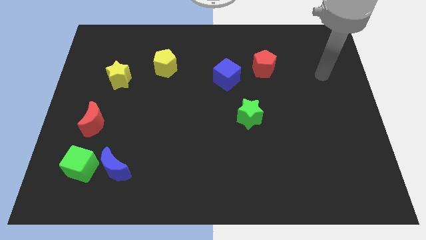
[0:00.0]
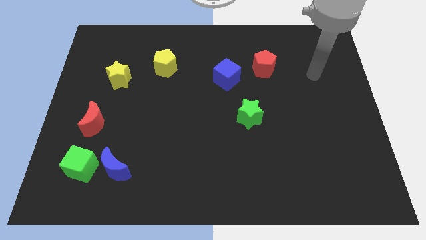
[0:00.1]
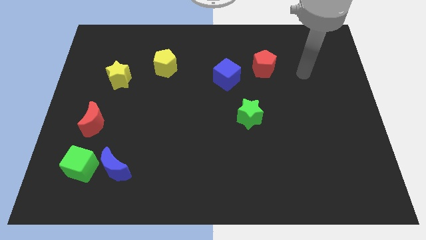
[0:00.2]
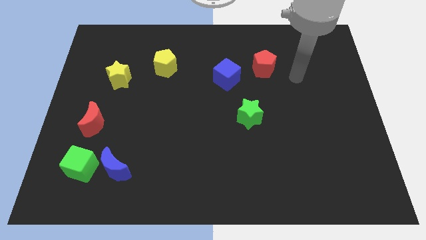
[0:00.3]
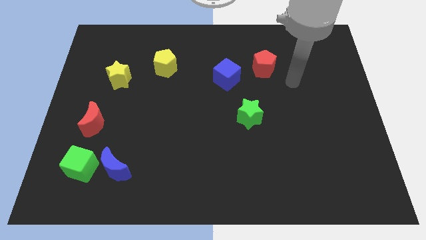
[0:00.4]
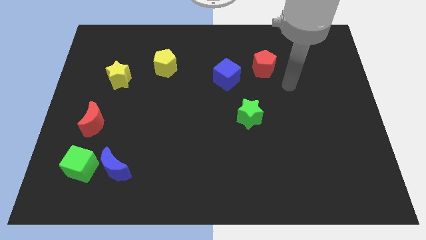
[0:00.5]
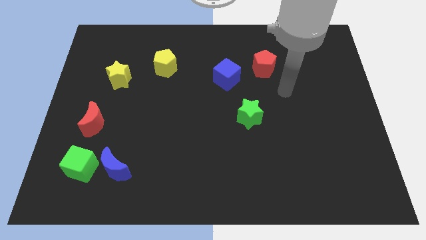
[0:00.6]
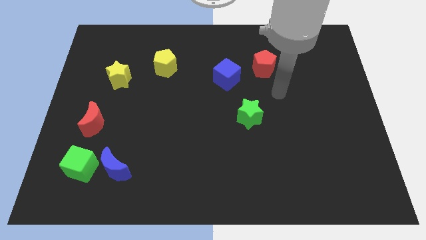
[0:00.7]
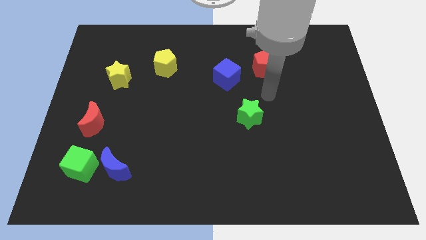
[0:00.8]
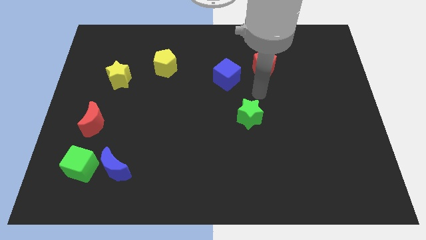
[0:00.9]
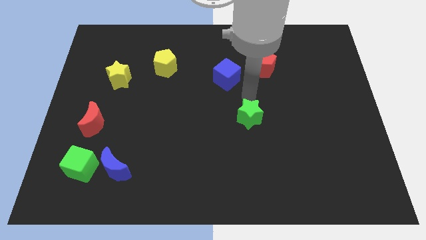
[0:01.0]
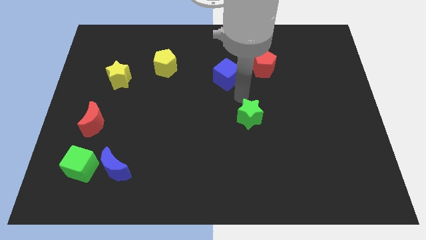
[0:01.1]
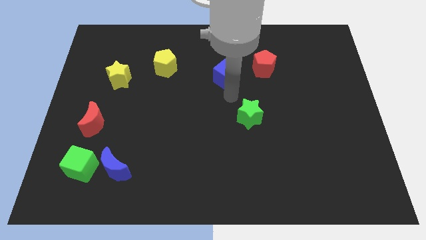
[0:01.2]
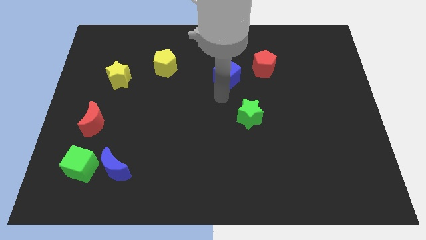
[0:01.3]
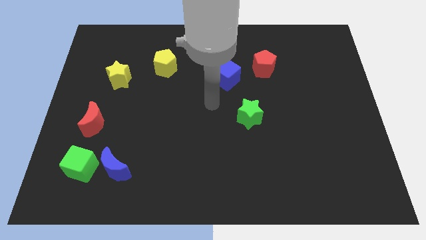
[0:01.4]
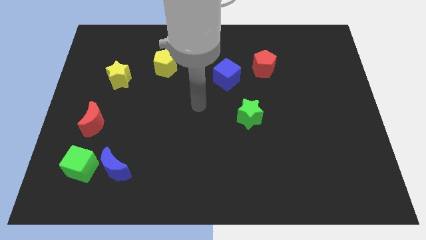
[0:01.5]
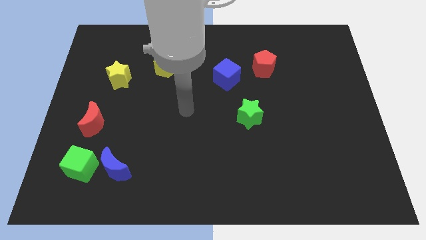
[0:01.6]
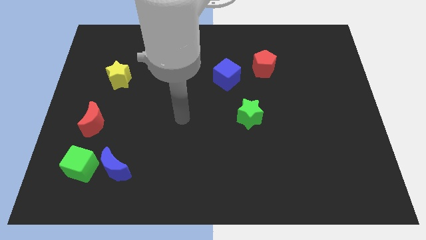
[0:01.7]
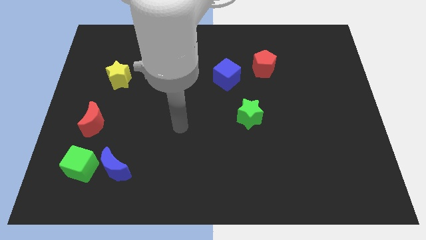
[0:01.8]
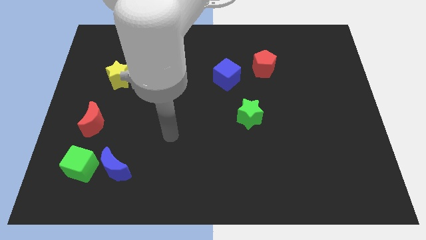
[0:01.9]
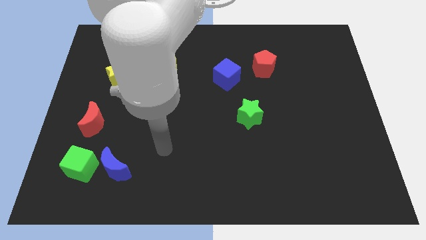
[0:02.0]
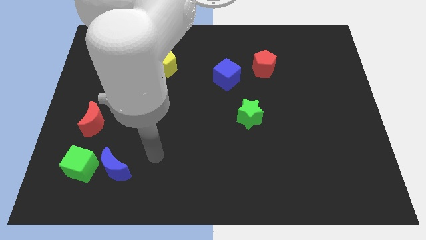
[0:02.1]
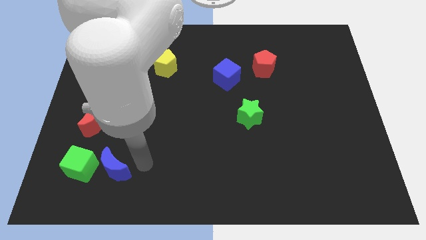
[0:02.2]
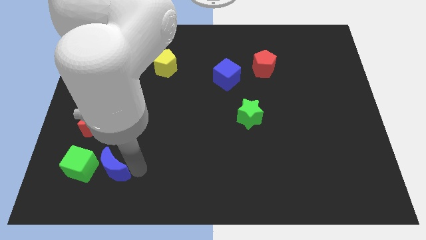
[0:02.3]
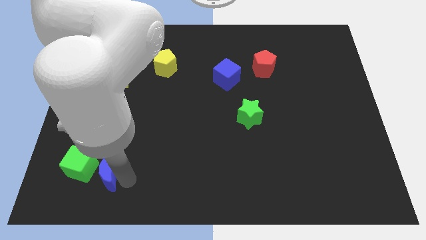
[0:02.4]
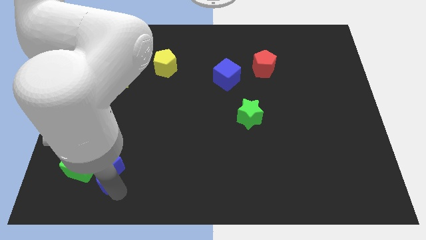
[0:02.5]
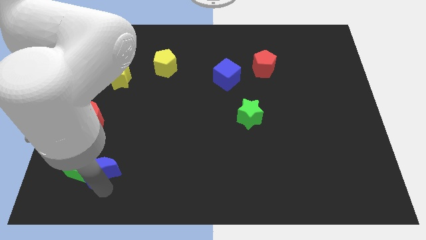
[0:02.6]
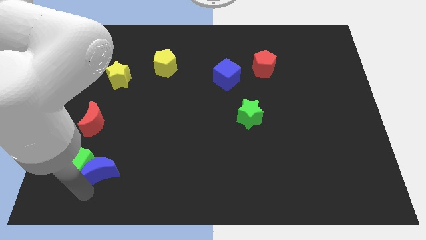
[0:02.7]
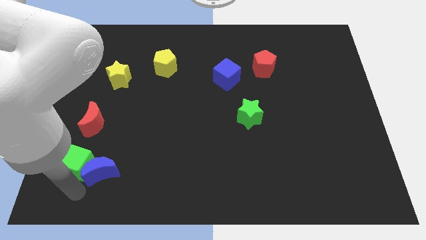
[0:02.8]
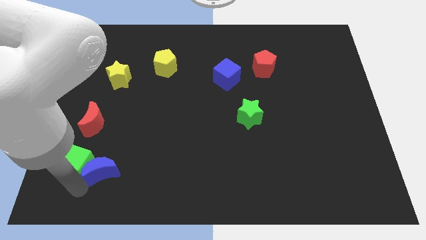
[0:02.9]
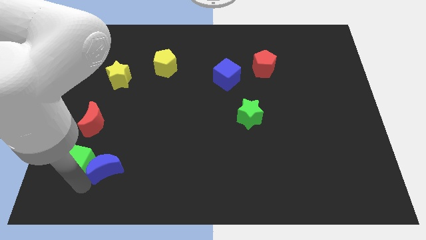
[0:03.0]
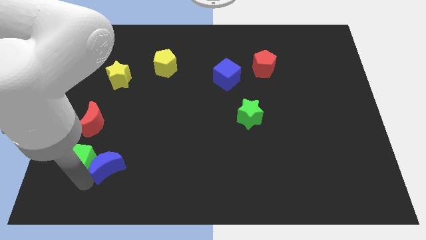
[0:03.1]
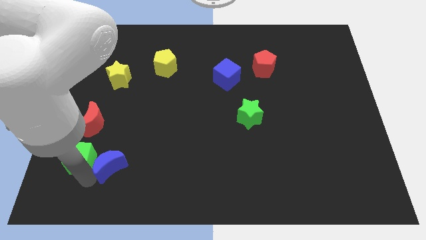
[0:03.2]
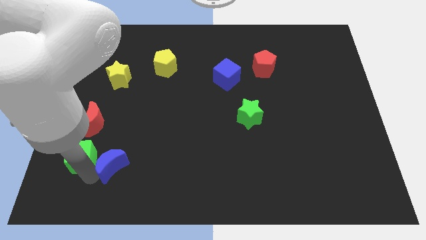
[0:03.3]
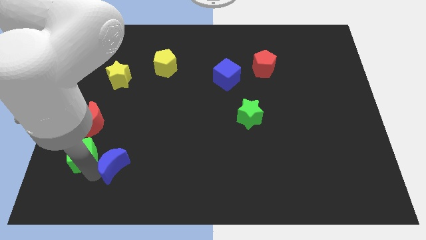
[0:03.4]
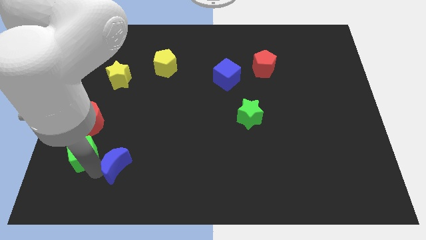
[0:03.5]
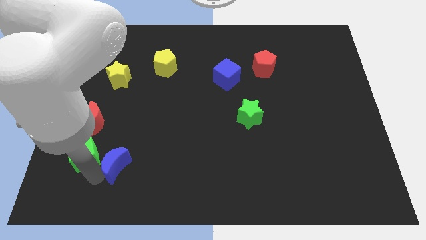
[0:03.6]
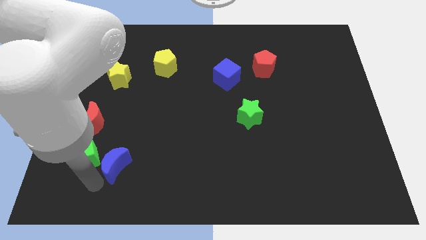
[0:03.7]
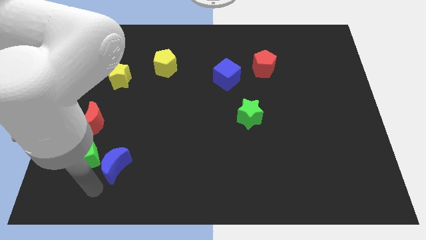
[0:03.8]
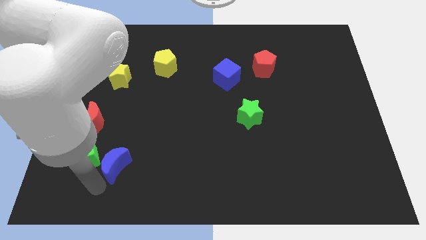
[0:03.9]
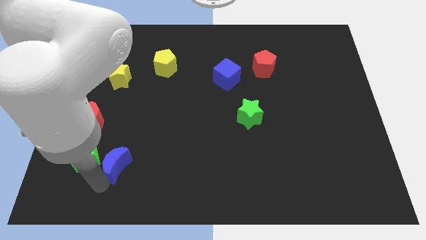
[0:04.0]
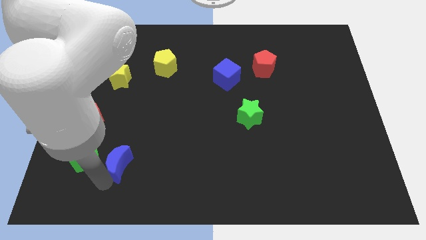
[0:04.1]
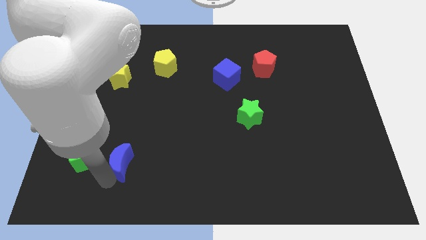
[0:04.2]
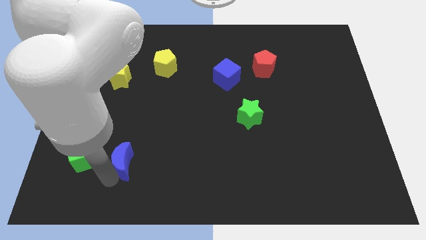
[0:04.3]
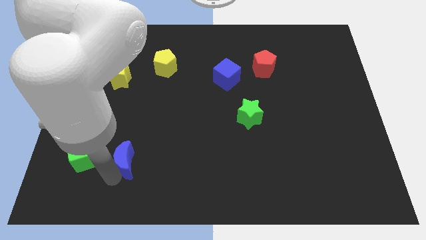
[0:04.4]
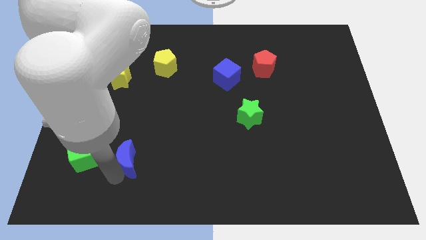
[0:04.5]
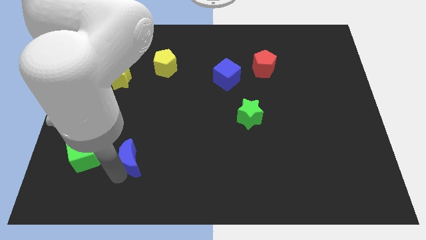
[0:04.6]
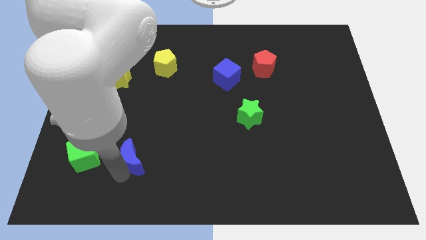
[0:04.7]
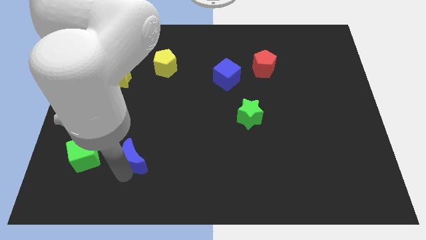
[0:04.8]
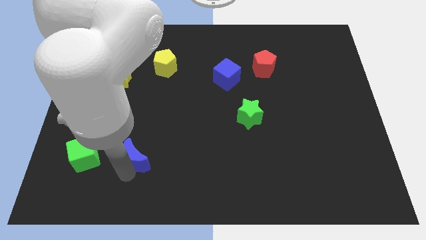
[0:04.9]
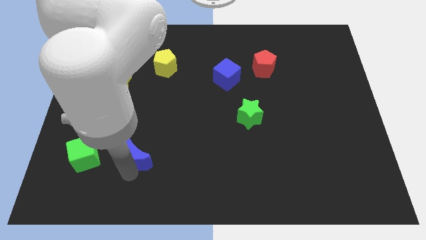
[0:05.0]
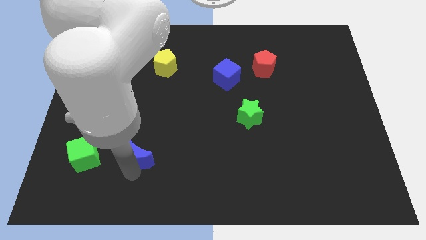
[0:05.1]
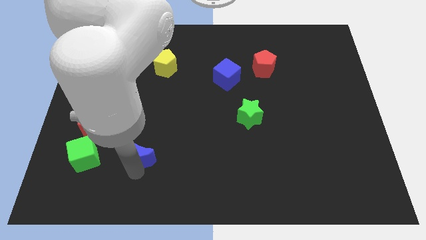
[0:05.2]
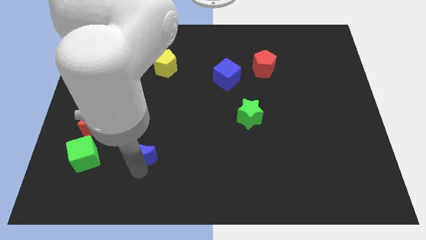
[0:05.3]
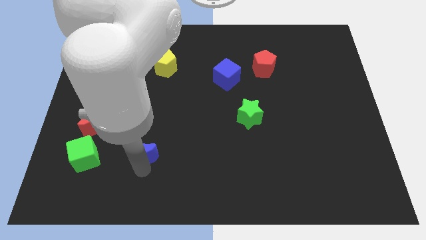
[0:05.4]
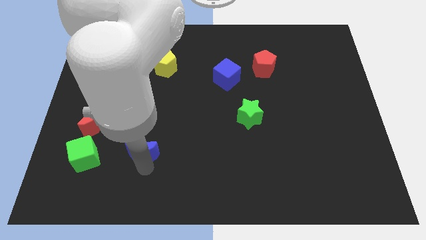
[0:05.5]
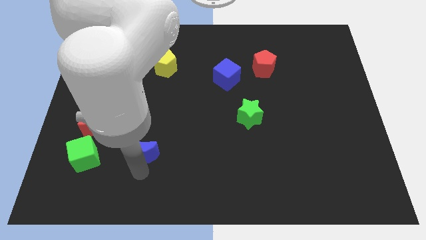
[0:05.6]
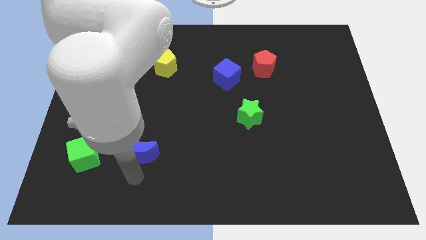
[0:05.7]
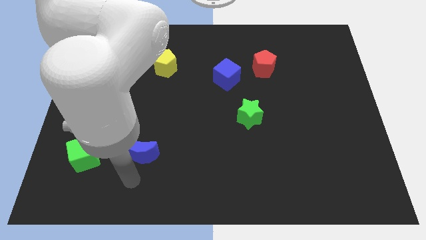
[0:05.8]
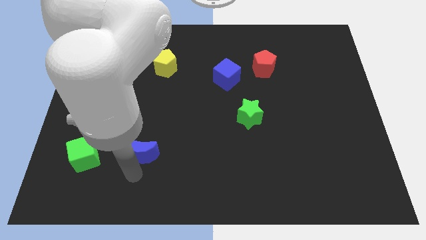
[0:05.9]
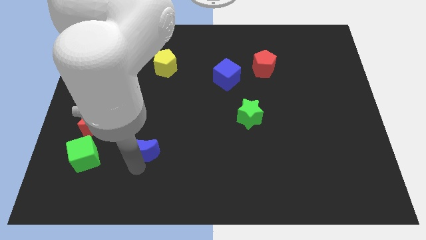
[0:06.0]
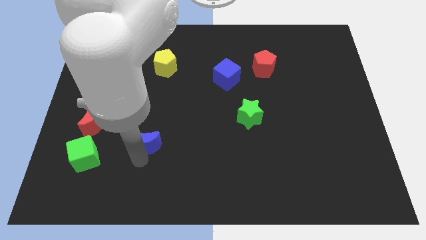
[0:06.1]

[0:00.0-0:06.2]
push the blue moon upwards and right diagonally a little

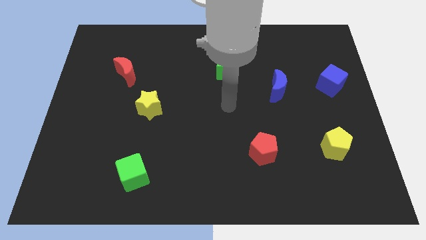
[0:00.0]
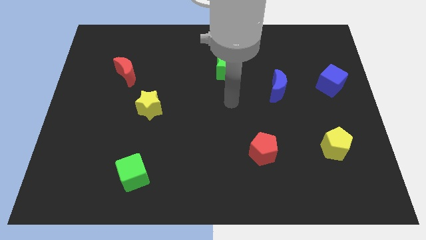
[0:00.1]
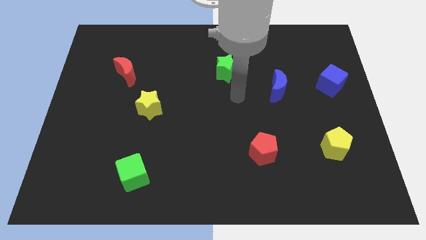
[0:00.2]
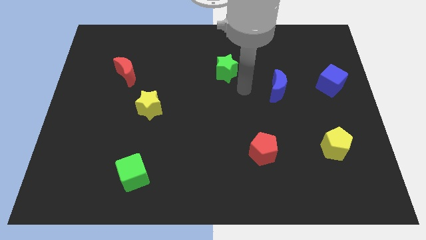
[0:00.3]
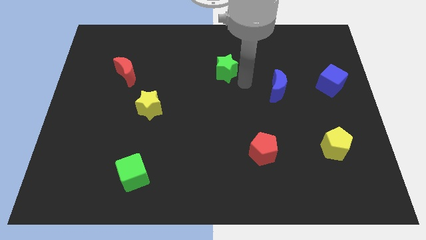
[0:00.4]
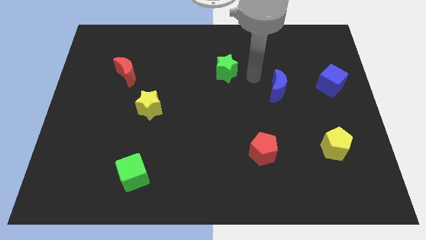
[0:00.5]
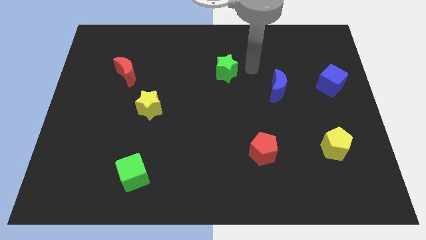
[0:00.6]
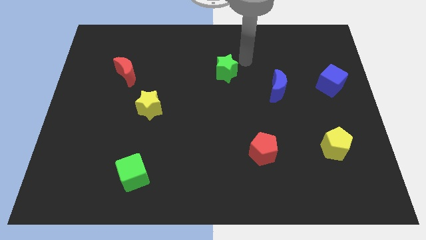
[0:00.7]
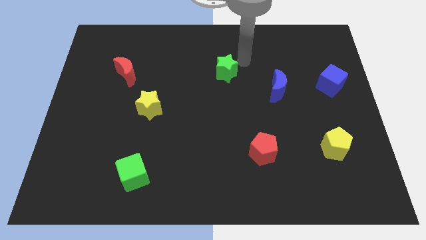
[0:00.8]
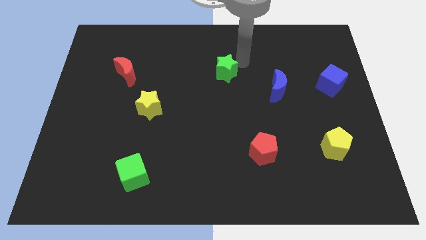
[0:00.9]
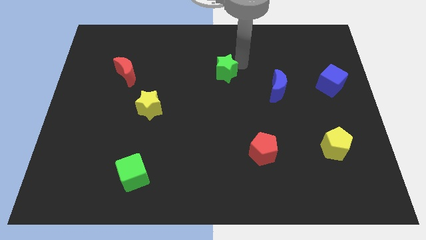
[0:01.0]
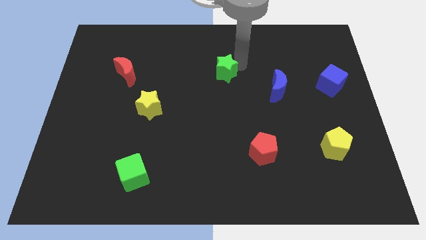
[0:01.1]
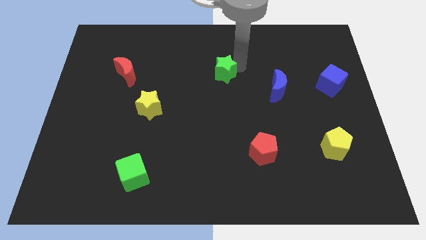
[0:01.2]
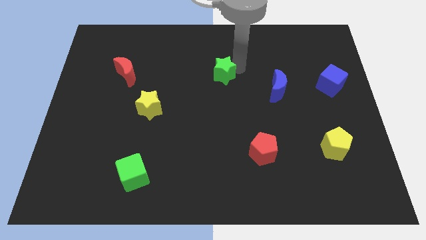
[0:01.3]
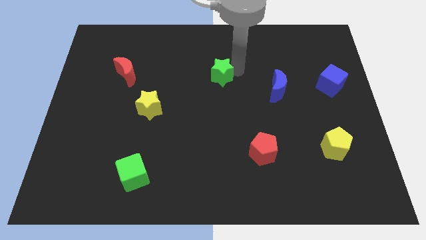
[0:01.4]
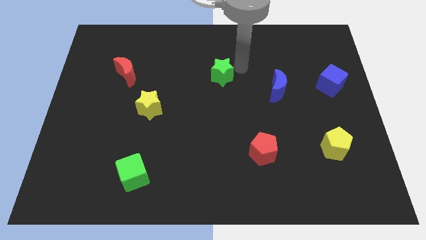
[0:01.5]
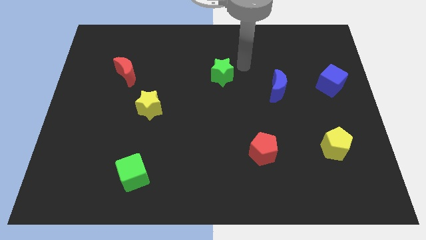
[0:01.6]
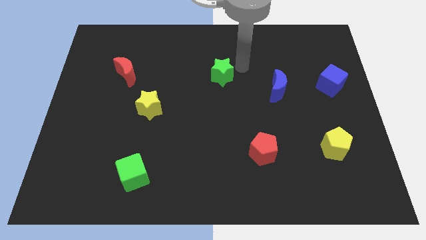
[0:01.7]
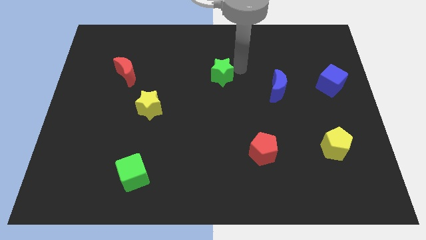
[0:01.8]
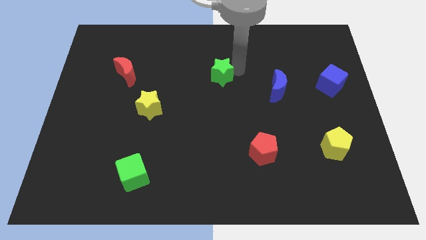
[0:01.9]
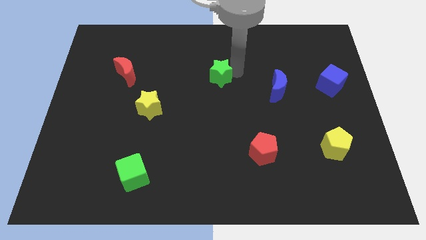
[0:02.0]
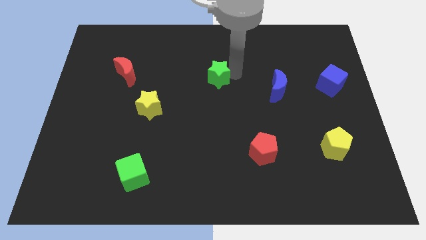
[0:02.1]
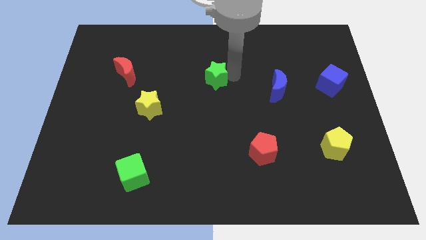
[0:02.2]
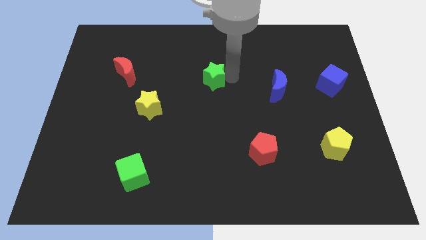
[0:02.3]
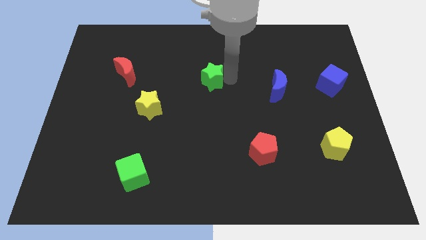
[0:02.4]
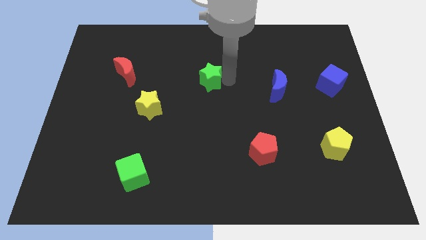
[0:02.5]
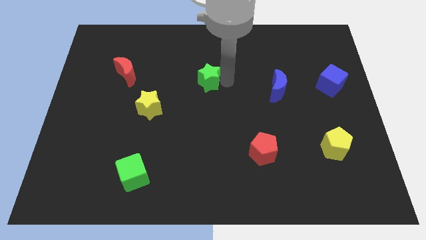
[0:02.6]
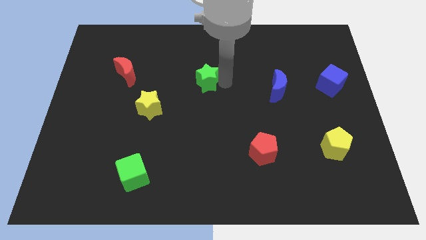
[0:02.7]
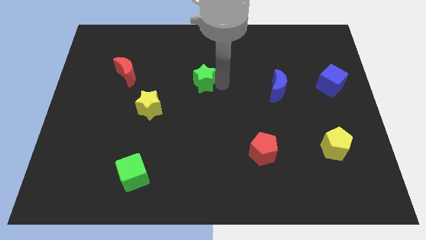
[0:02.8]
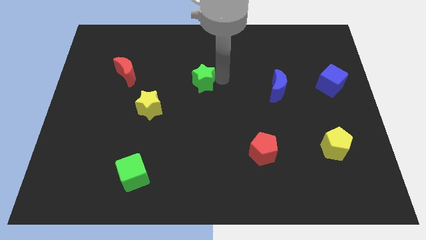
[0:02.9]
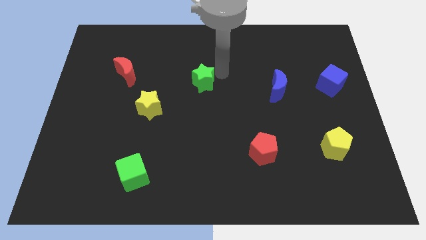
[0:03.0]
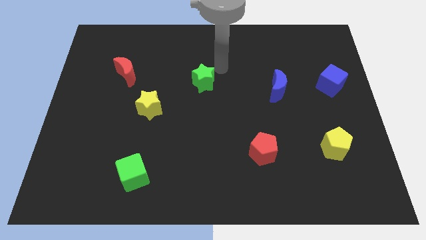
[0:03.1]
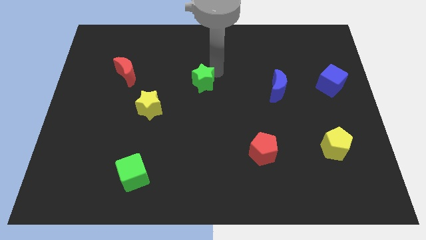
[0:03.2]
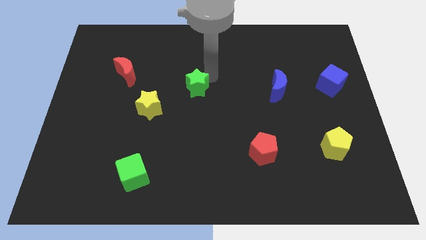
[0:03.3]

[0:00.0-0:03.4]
slightly move the green star down and then left
